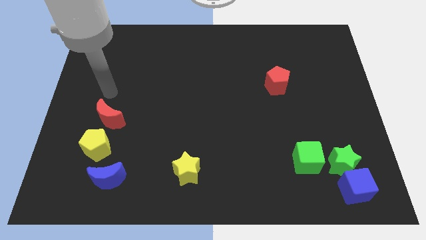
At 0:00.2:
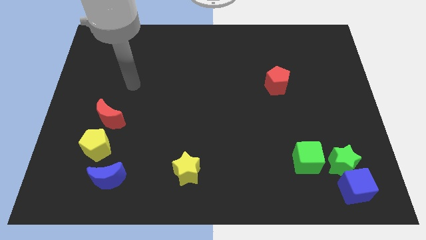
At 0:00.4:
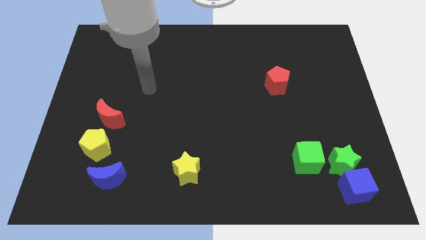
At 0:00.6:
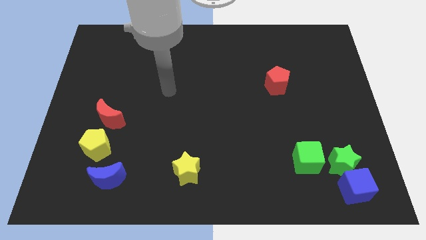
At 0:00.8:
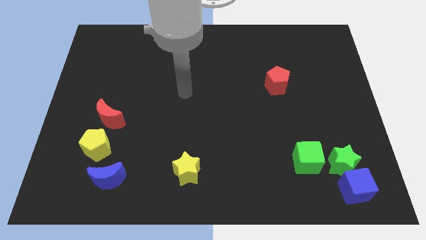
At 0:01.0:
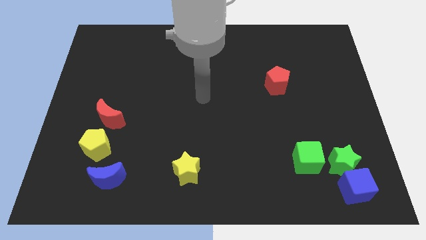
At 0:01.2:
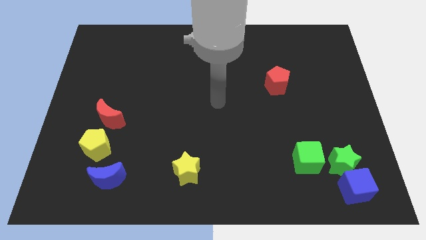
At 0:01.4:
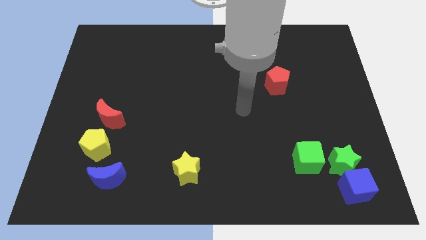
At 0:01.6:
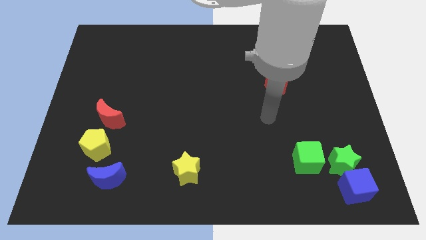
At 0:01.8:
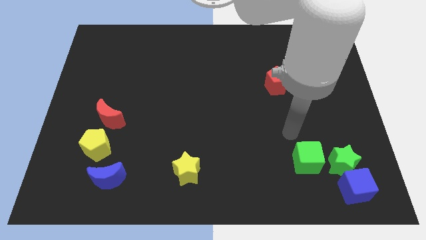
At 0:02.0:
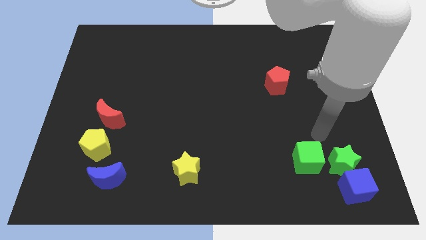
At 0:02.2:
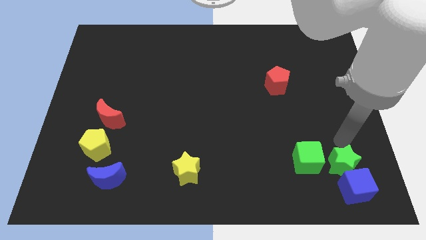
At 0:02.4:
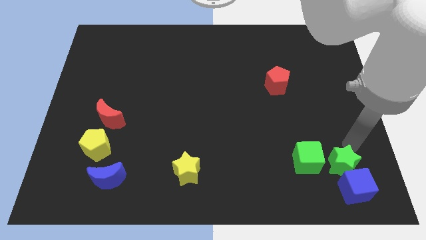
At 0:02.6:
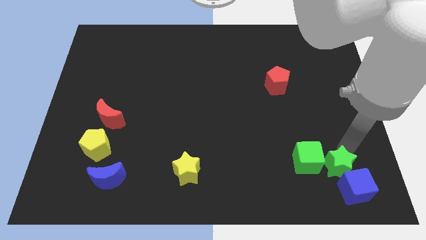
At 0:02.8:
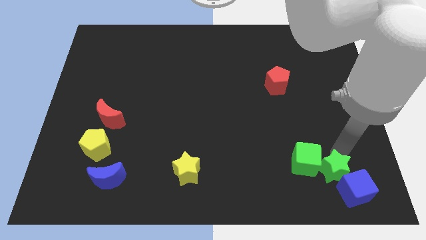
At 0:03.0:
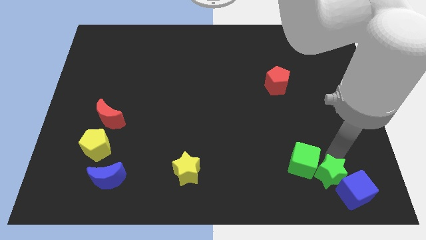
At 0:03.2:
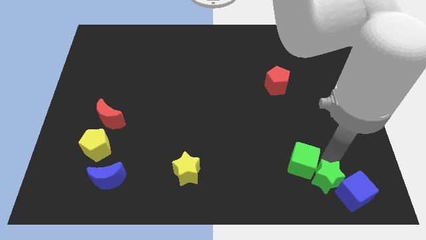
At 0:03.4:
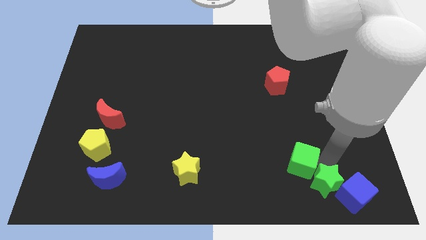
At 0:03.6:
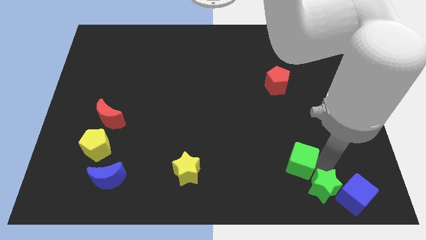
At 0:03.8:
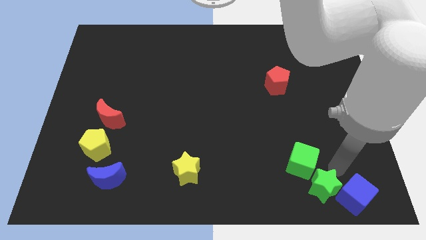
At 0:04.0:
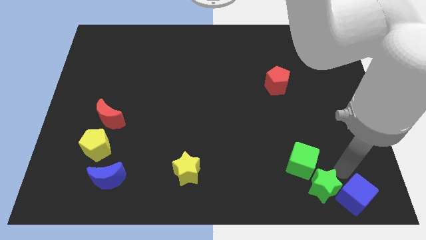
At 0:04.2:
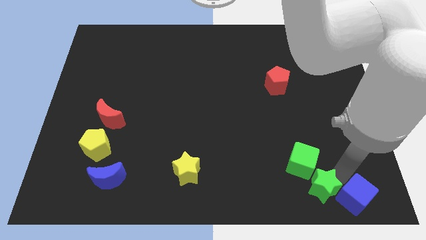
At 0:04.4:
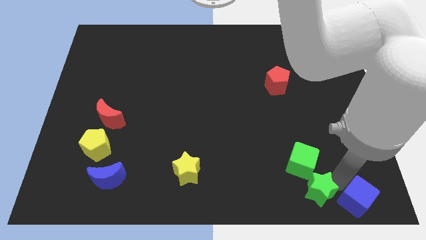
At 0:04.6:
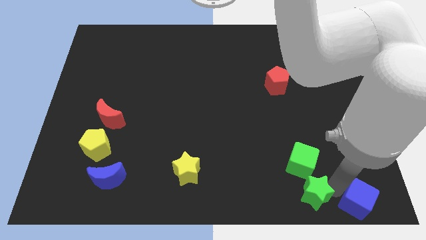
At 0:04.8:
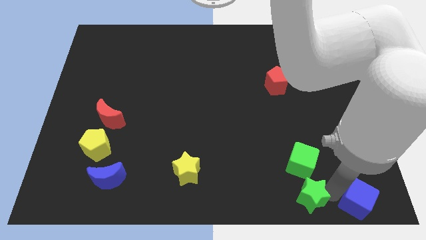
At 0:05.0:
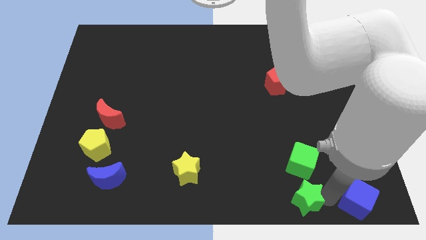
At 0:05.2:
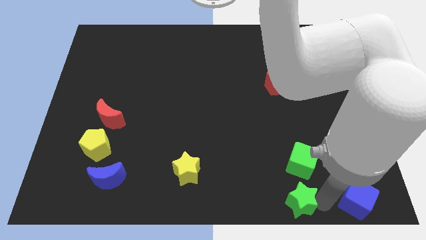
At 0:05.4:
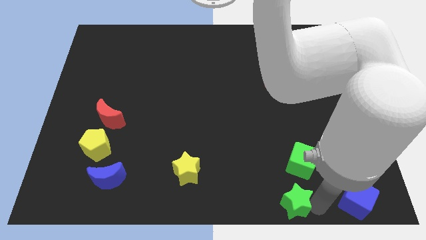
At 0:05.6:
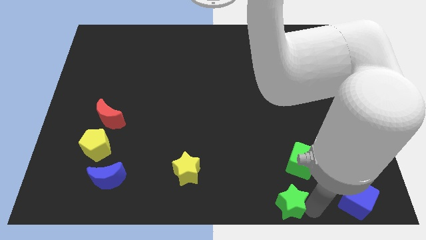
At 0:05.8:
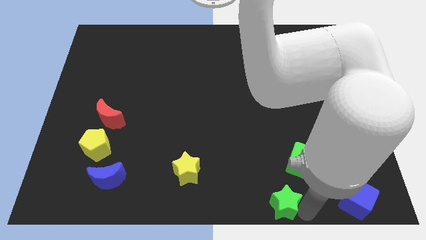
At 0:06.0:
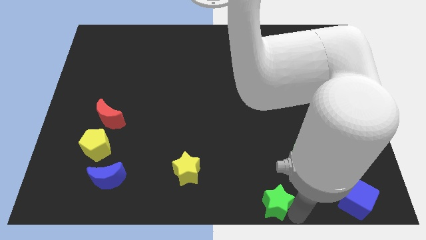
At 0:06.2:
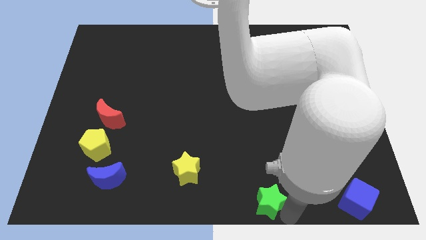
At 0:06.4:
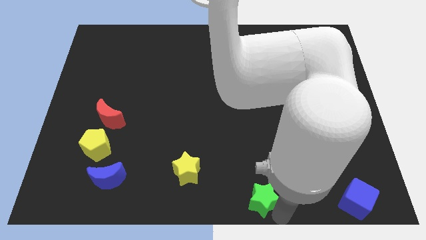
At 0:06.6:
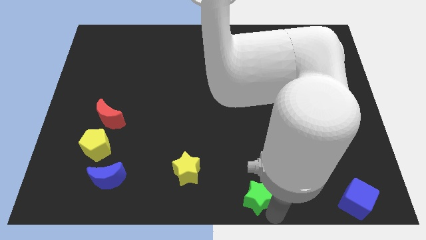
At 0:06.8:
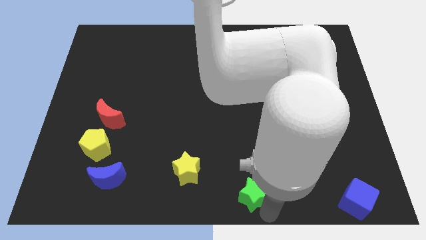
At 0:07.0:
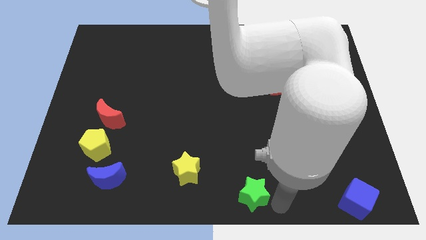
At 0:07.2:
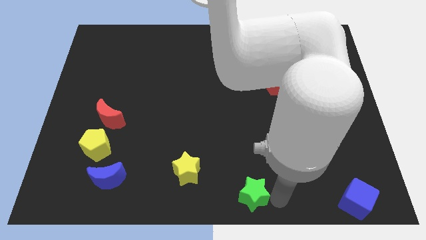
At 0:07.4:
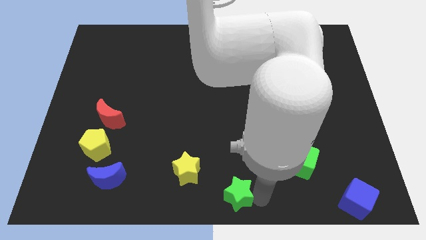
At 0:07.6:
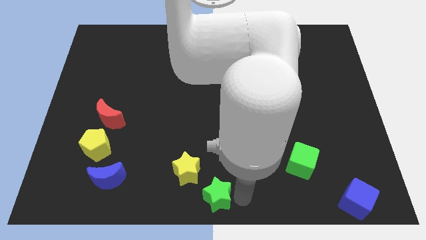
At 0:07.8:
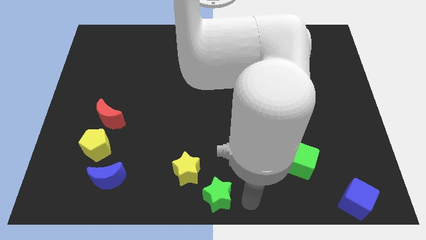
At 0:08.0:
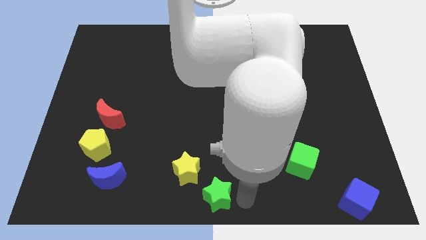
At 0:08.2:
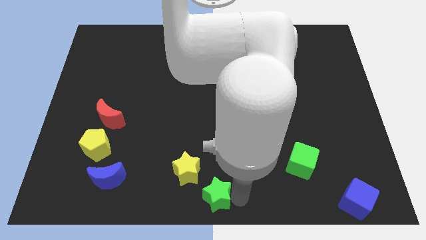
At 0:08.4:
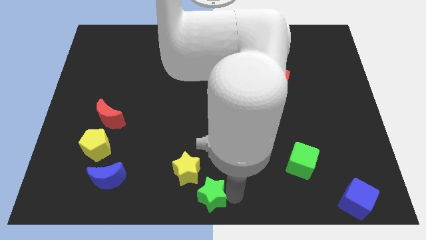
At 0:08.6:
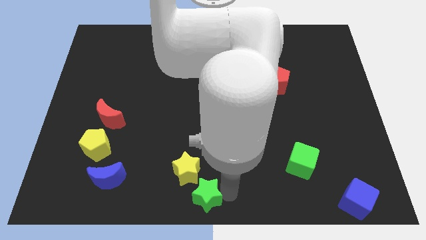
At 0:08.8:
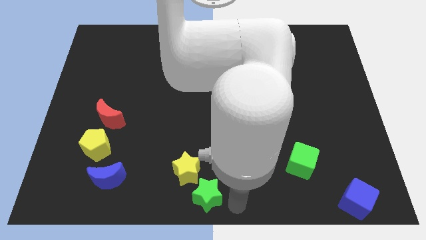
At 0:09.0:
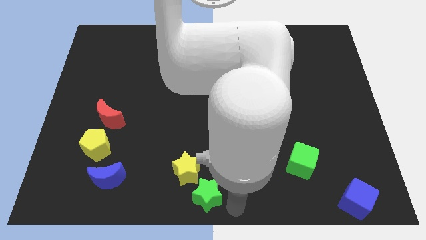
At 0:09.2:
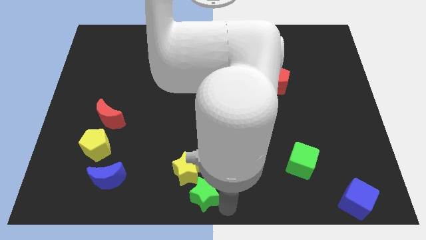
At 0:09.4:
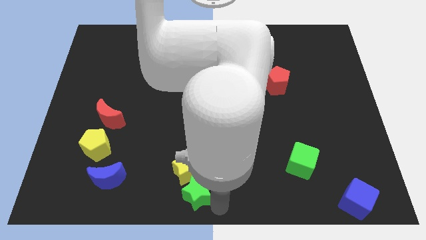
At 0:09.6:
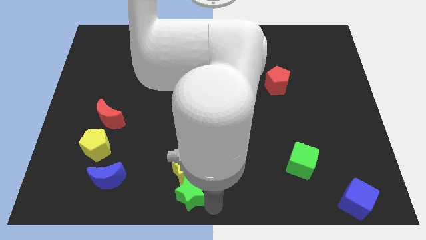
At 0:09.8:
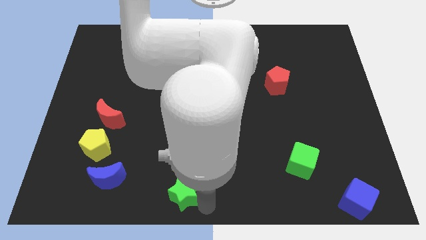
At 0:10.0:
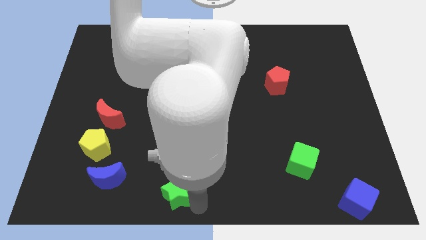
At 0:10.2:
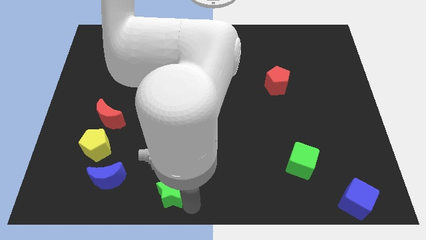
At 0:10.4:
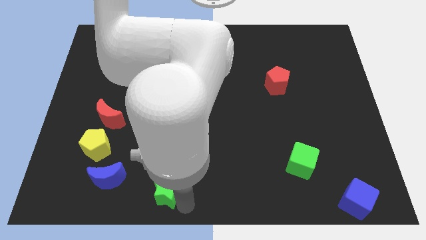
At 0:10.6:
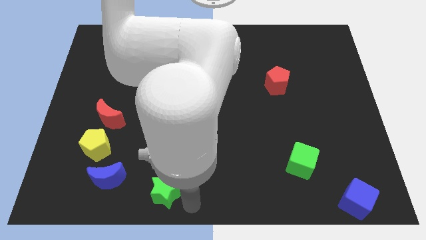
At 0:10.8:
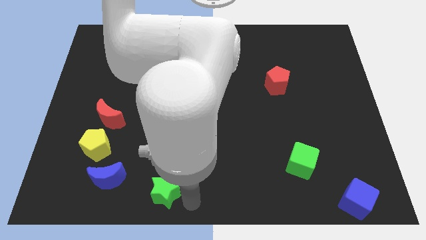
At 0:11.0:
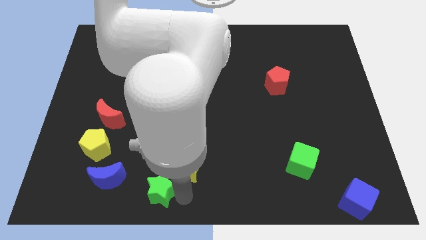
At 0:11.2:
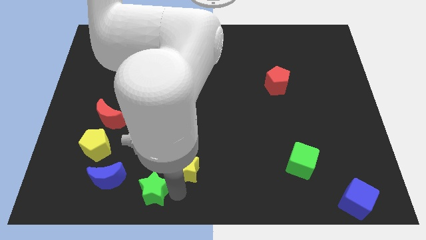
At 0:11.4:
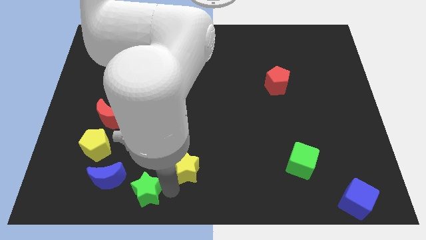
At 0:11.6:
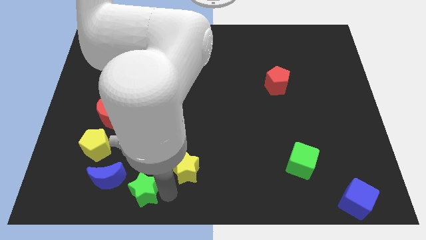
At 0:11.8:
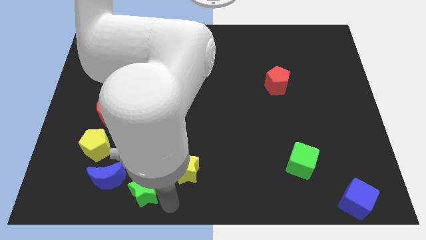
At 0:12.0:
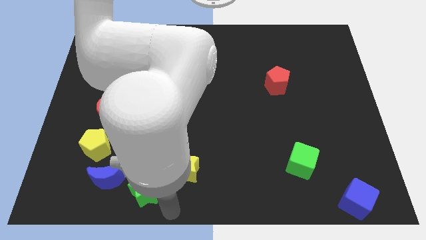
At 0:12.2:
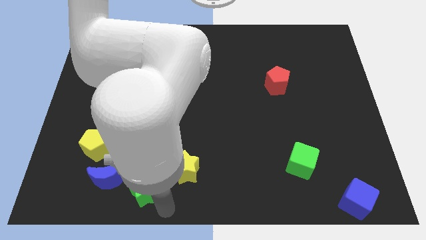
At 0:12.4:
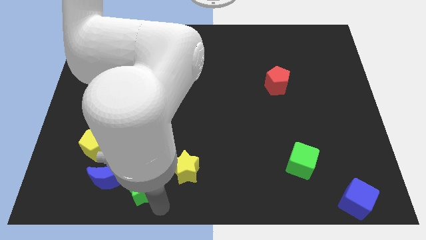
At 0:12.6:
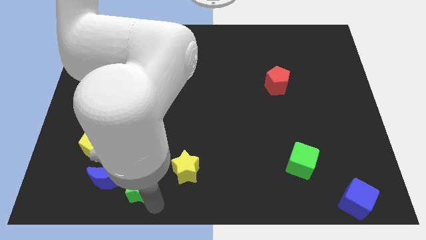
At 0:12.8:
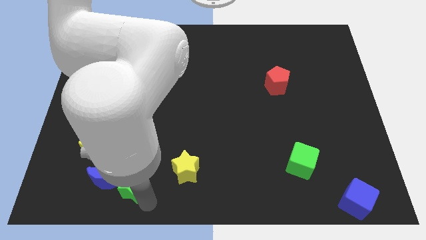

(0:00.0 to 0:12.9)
move the green star diagonally down and to the right of the yellow pentagon
